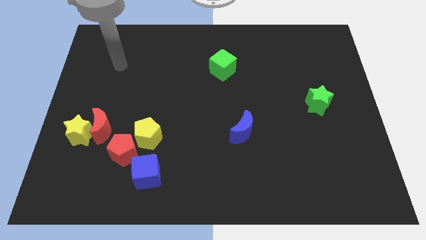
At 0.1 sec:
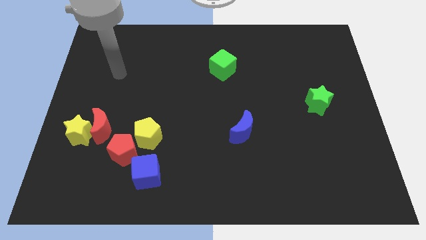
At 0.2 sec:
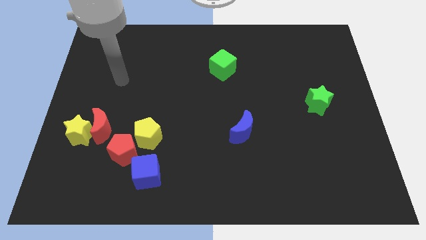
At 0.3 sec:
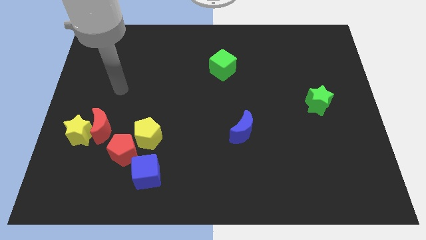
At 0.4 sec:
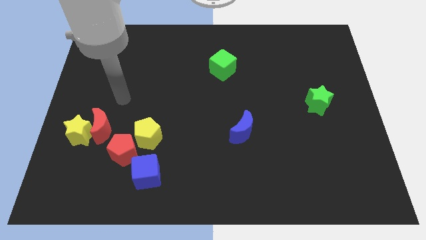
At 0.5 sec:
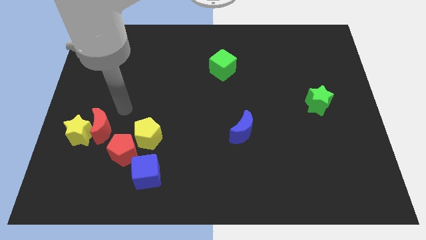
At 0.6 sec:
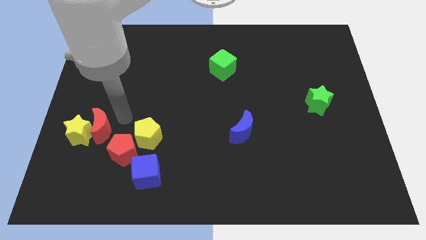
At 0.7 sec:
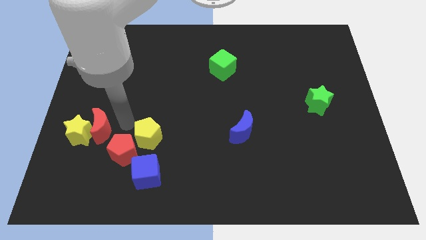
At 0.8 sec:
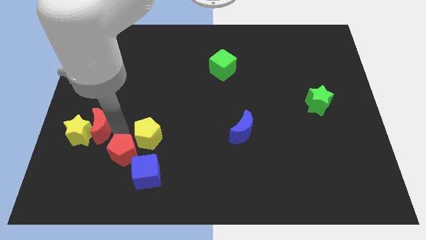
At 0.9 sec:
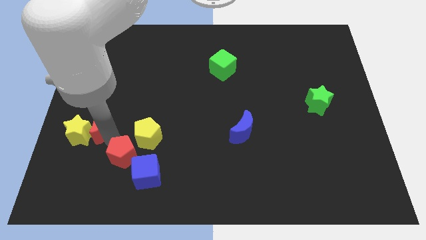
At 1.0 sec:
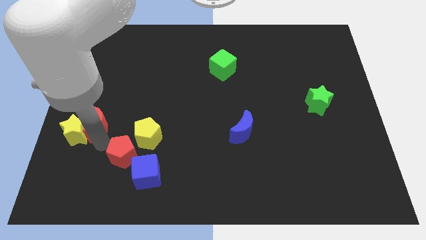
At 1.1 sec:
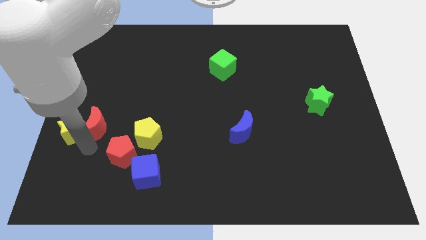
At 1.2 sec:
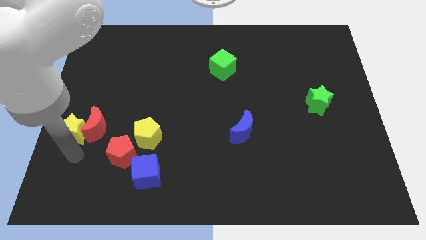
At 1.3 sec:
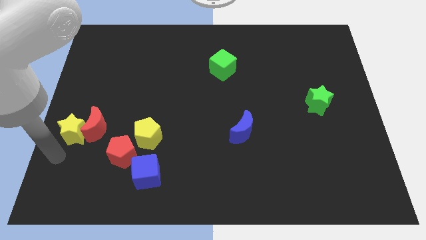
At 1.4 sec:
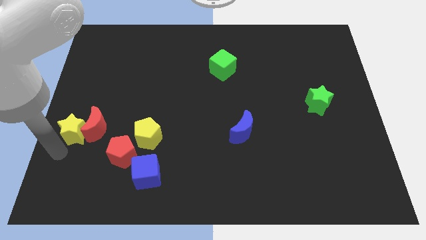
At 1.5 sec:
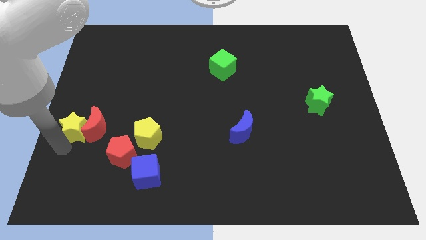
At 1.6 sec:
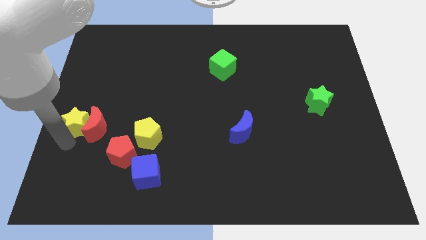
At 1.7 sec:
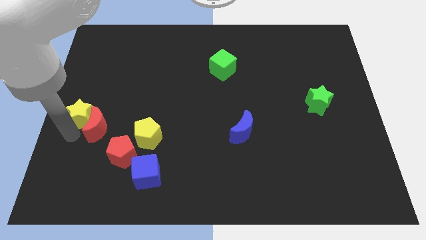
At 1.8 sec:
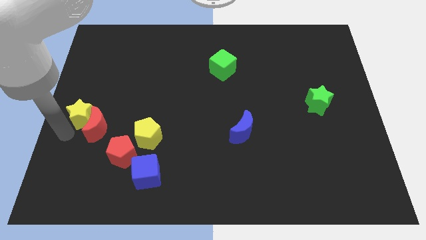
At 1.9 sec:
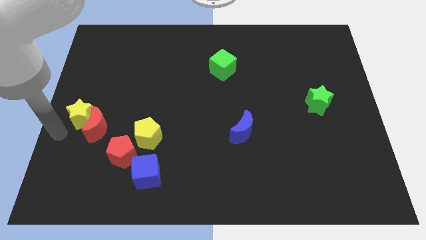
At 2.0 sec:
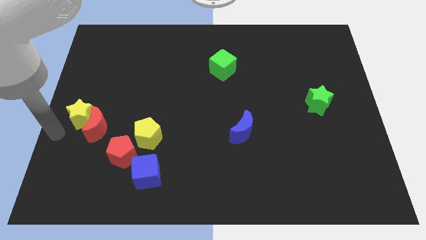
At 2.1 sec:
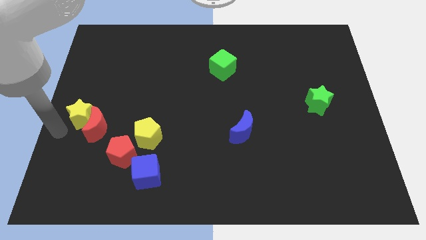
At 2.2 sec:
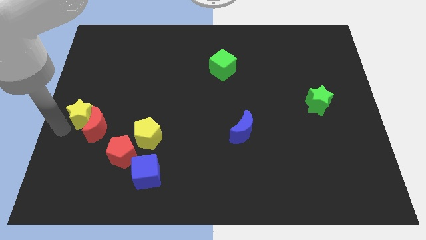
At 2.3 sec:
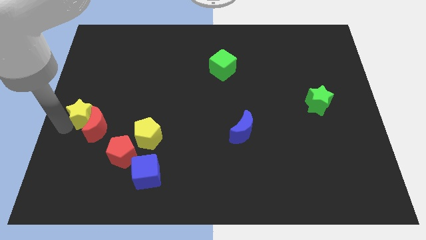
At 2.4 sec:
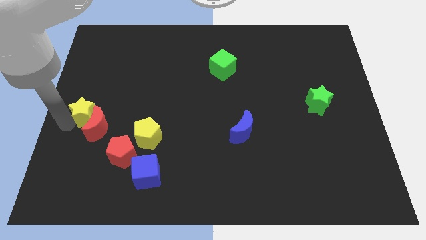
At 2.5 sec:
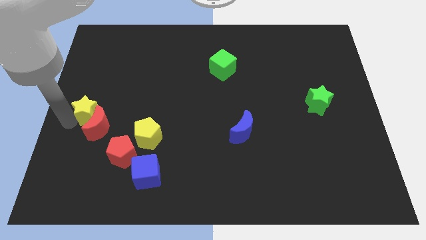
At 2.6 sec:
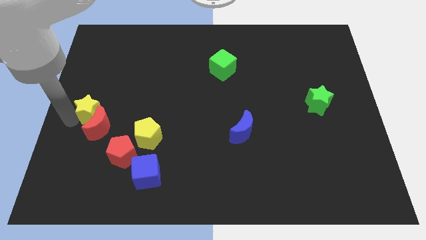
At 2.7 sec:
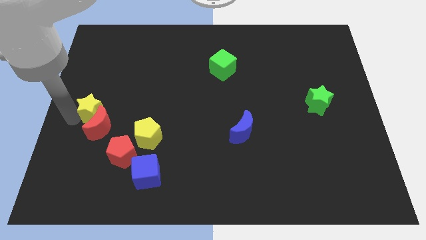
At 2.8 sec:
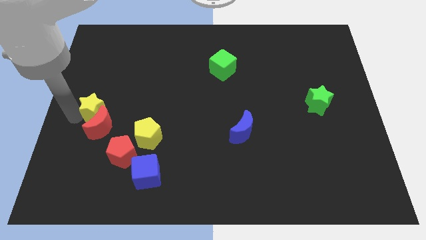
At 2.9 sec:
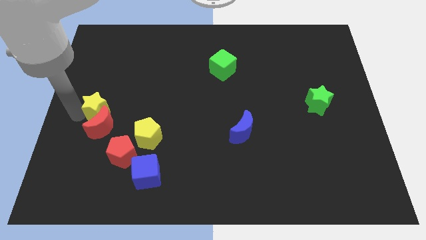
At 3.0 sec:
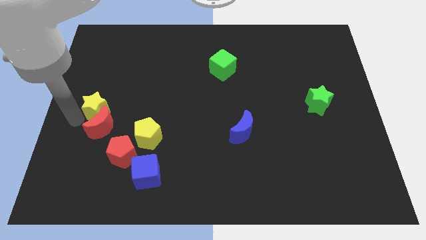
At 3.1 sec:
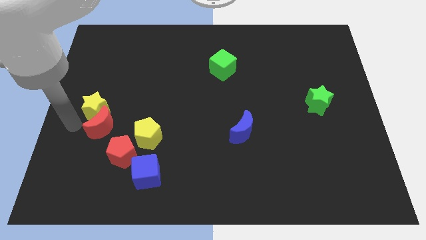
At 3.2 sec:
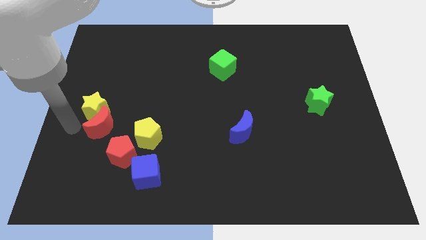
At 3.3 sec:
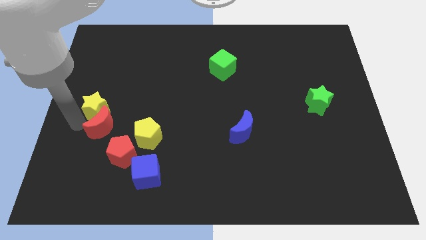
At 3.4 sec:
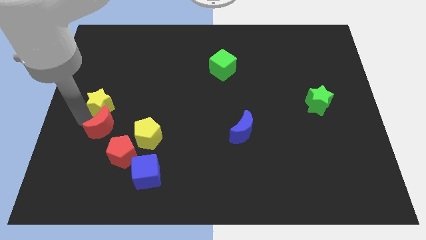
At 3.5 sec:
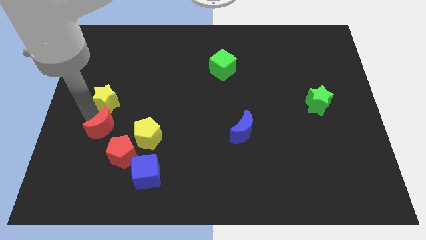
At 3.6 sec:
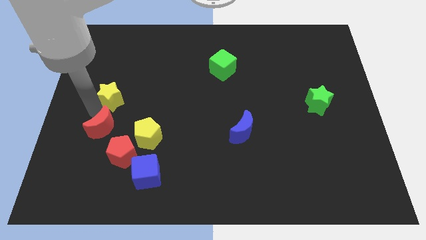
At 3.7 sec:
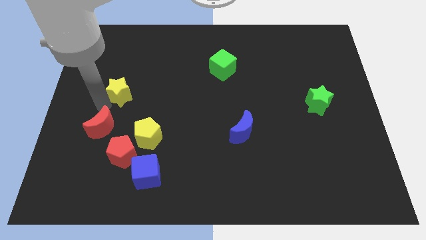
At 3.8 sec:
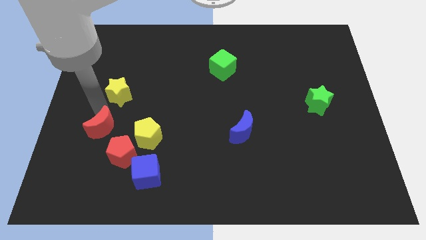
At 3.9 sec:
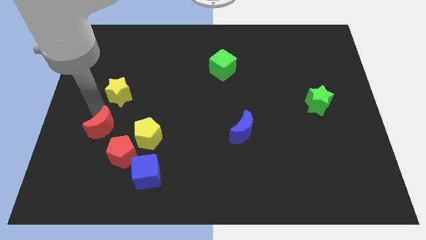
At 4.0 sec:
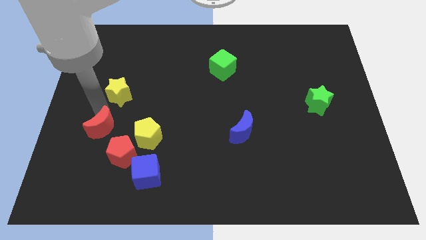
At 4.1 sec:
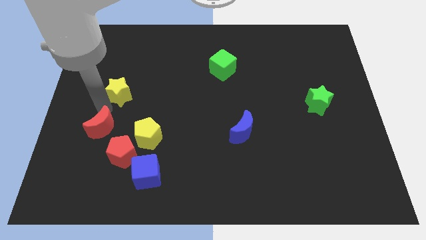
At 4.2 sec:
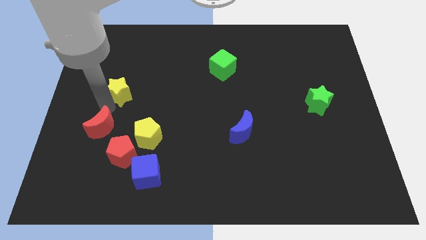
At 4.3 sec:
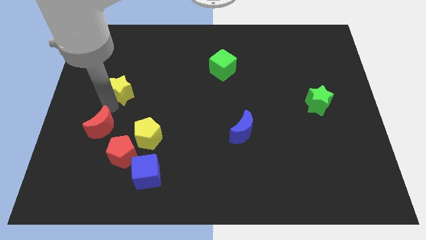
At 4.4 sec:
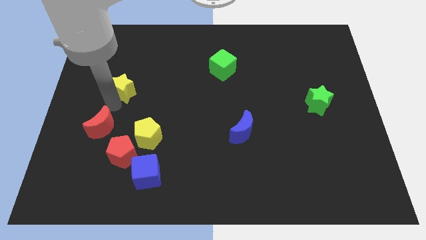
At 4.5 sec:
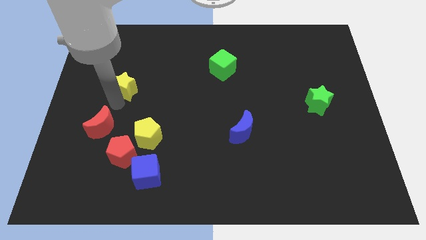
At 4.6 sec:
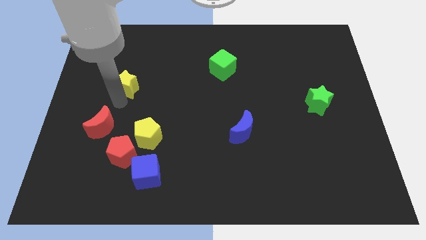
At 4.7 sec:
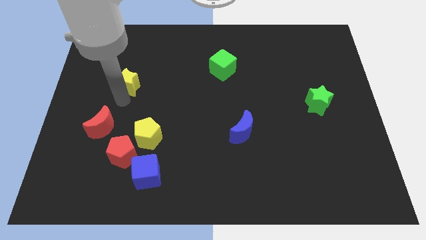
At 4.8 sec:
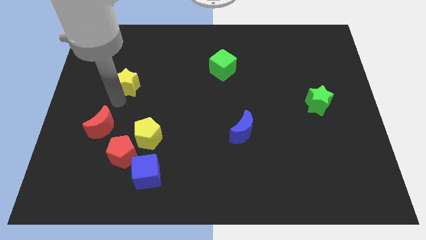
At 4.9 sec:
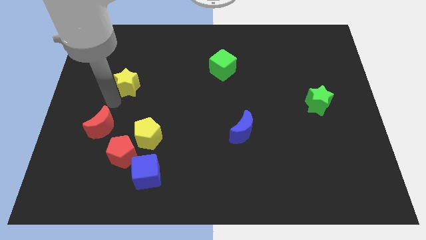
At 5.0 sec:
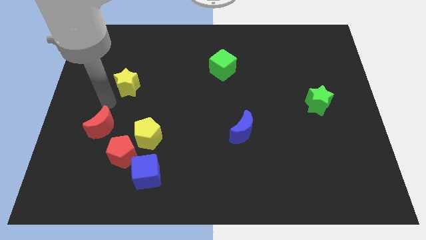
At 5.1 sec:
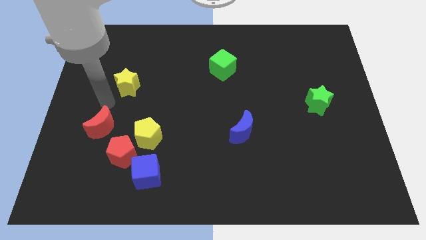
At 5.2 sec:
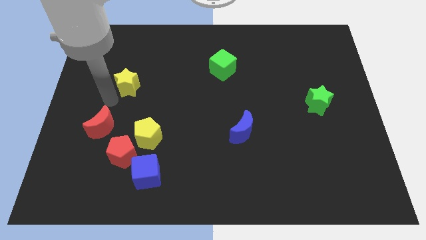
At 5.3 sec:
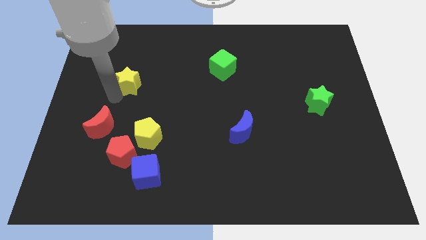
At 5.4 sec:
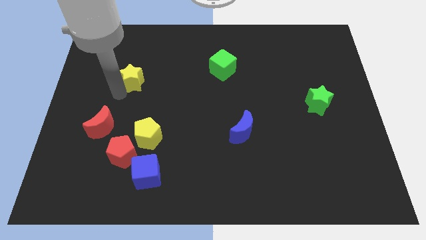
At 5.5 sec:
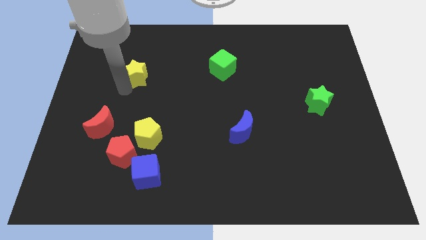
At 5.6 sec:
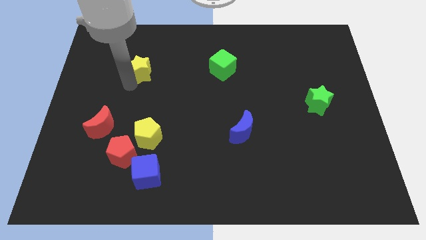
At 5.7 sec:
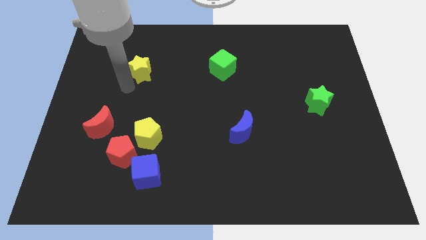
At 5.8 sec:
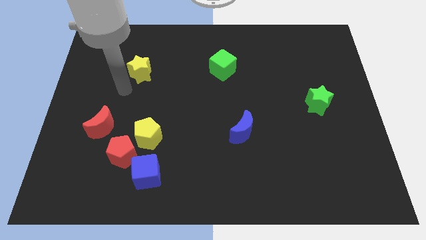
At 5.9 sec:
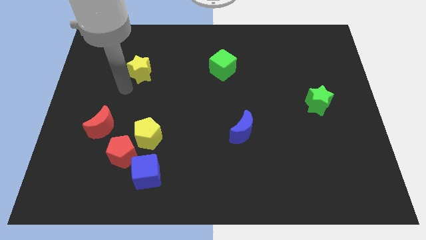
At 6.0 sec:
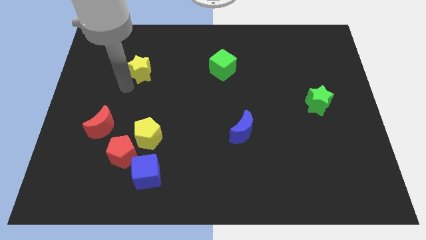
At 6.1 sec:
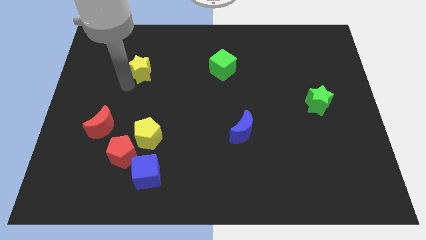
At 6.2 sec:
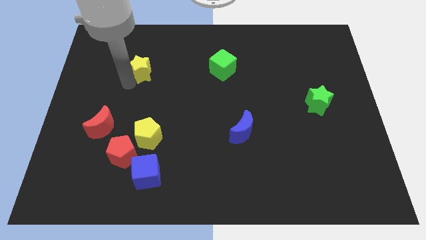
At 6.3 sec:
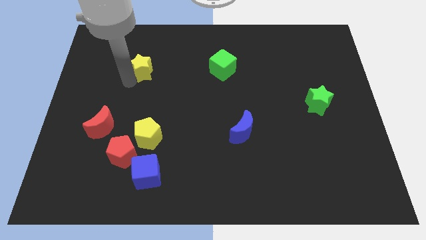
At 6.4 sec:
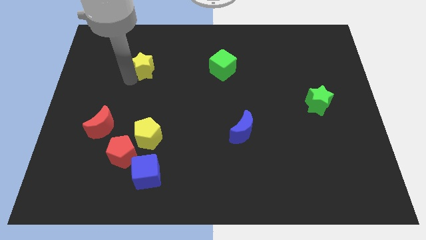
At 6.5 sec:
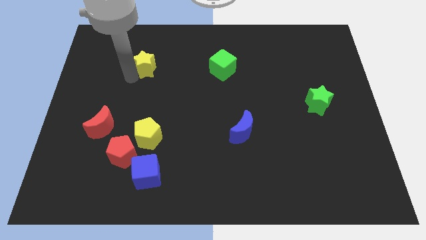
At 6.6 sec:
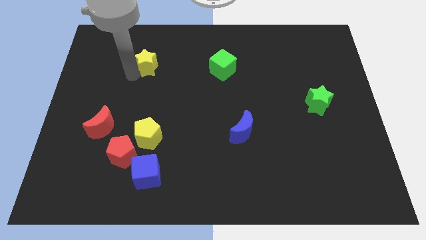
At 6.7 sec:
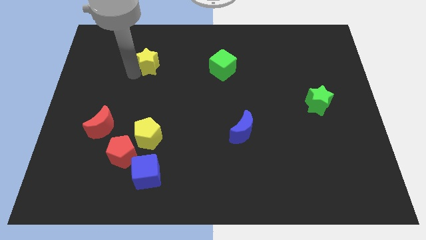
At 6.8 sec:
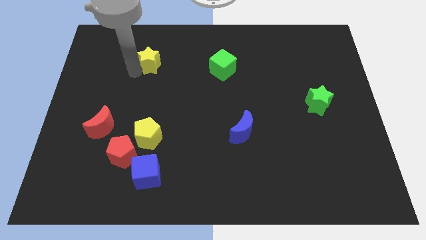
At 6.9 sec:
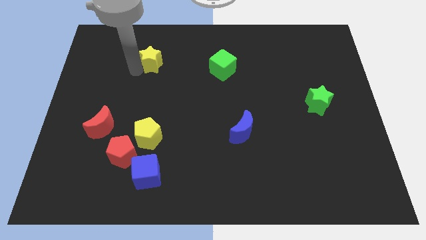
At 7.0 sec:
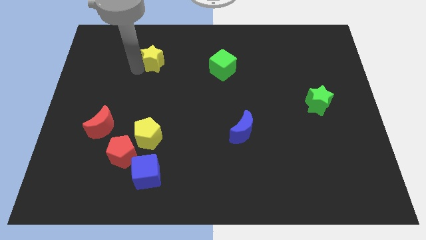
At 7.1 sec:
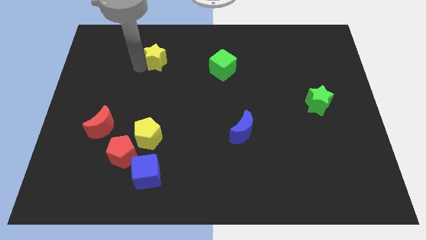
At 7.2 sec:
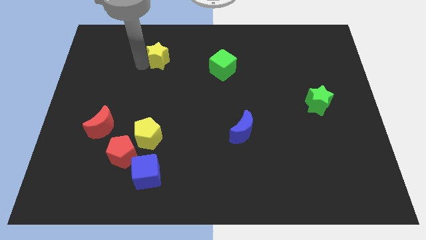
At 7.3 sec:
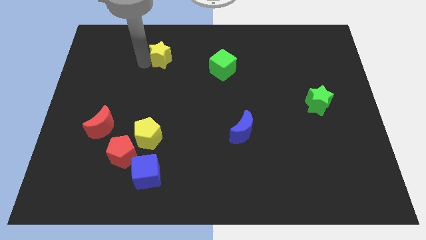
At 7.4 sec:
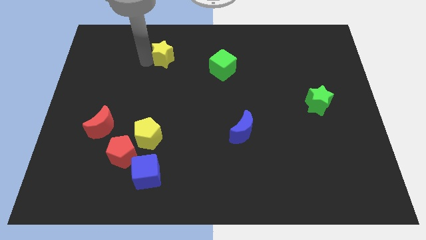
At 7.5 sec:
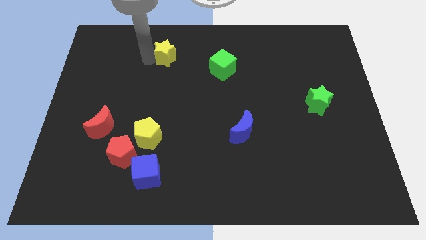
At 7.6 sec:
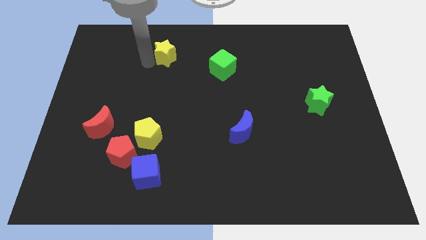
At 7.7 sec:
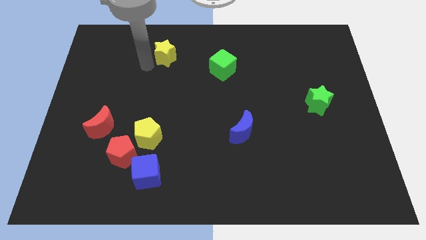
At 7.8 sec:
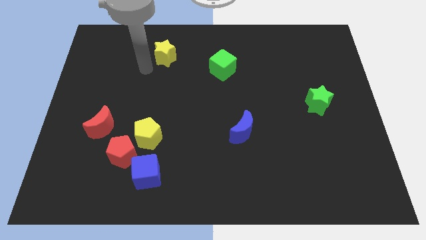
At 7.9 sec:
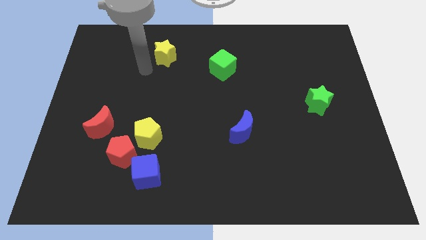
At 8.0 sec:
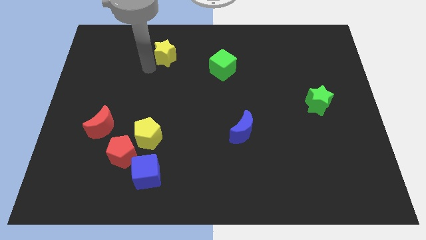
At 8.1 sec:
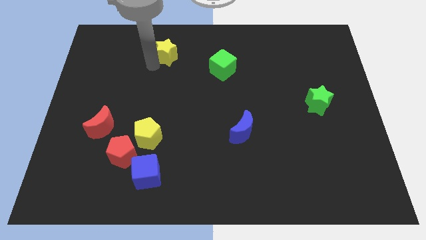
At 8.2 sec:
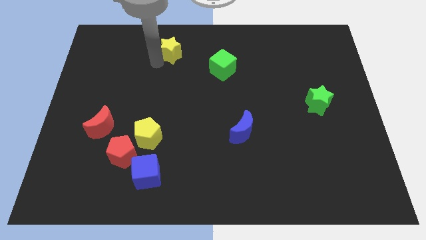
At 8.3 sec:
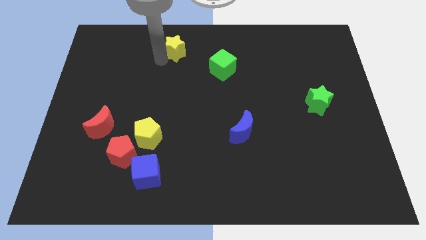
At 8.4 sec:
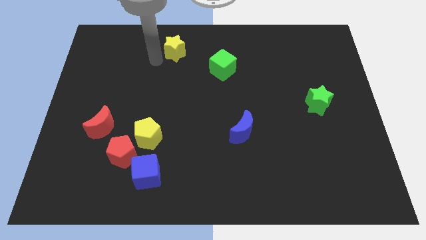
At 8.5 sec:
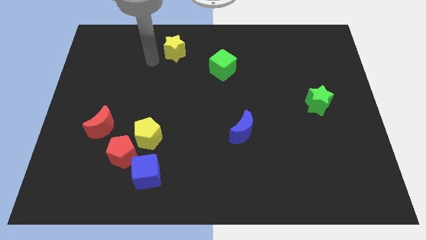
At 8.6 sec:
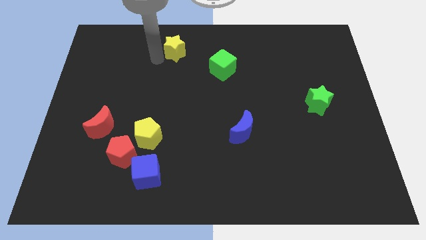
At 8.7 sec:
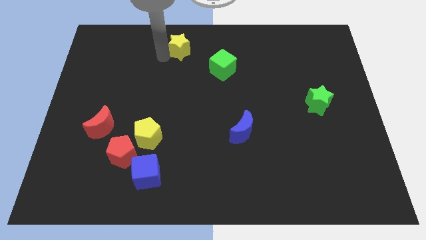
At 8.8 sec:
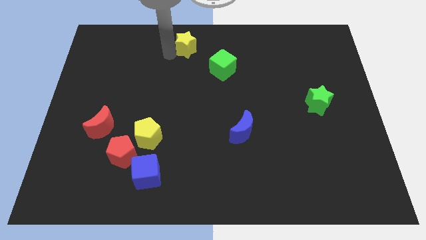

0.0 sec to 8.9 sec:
push the yellow star to the towards your base
